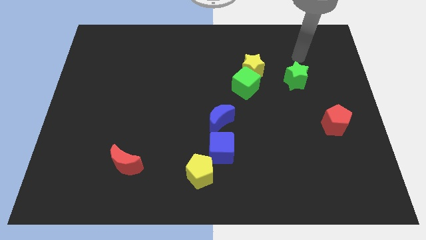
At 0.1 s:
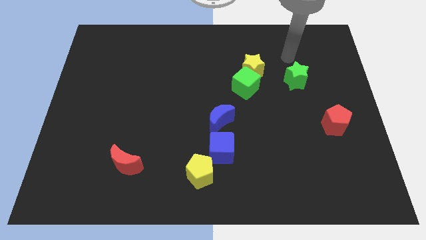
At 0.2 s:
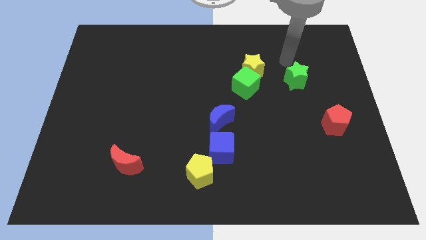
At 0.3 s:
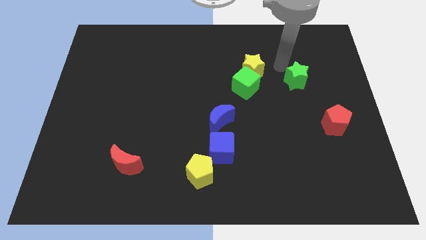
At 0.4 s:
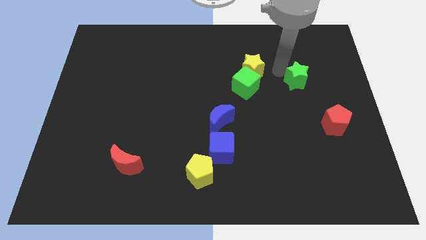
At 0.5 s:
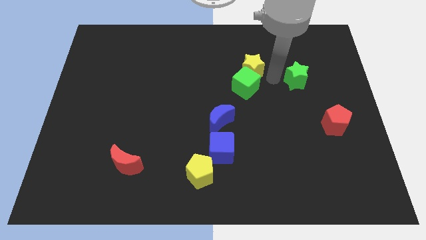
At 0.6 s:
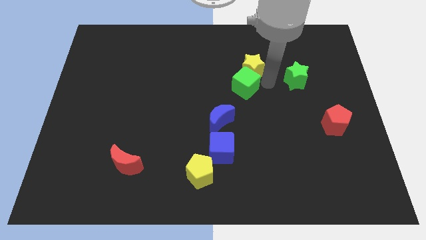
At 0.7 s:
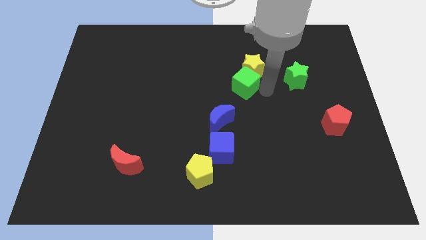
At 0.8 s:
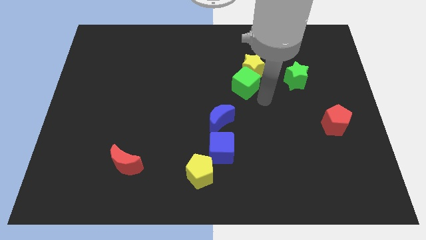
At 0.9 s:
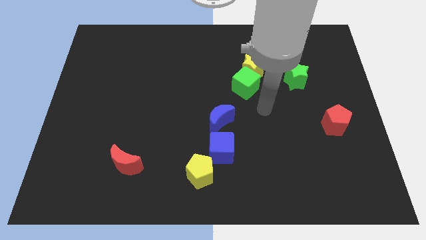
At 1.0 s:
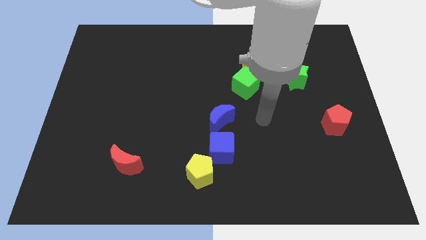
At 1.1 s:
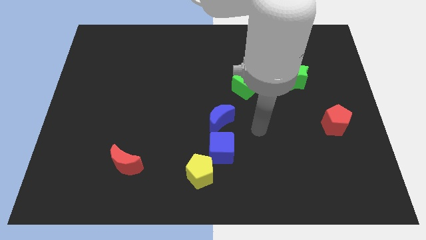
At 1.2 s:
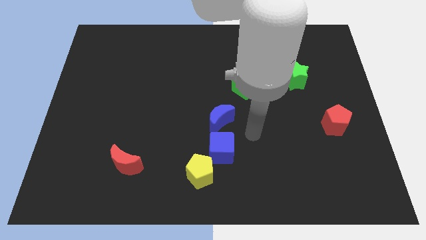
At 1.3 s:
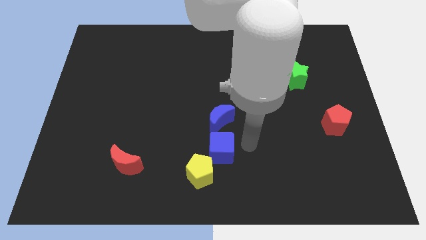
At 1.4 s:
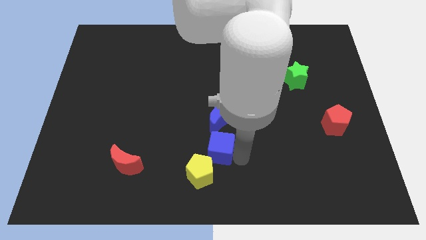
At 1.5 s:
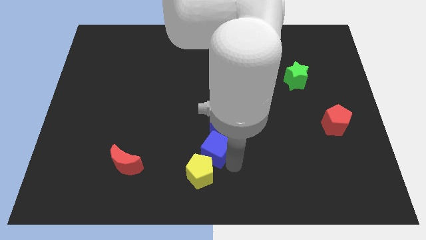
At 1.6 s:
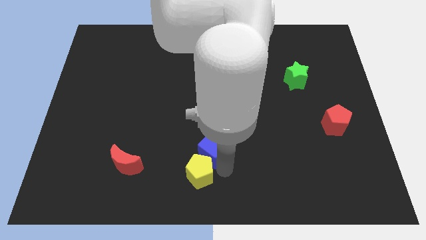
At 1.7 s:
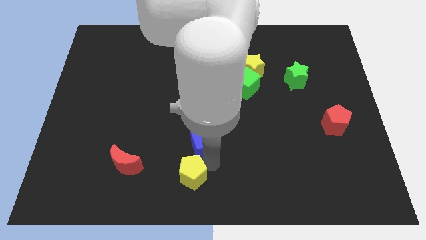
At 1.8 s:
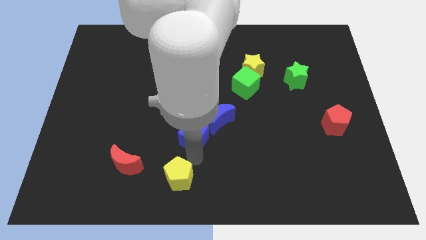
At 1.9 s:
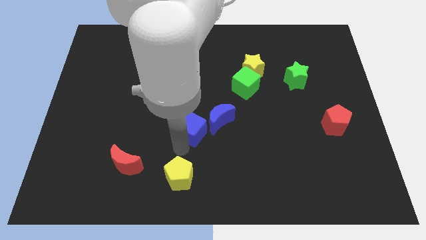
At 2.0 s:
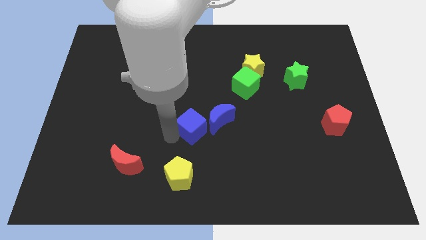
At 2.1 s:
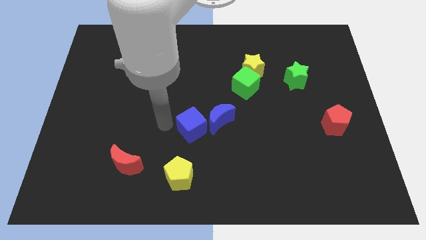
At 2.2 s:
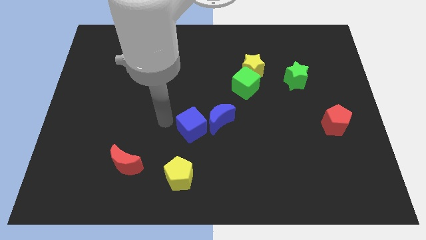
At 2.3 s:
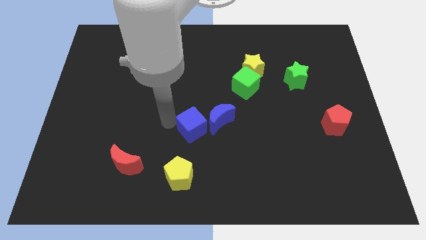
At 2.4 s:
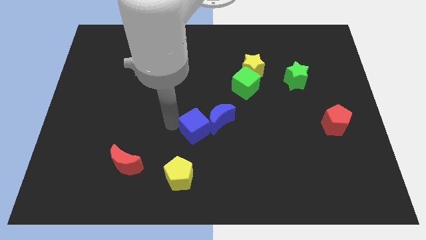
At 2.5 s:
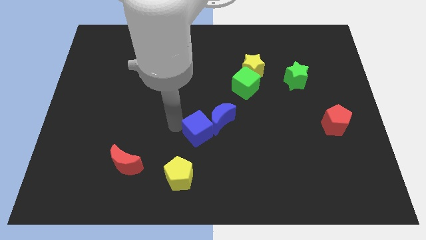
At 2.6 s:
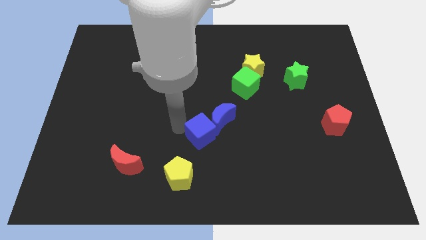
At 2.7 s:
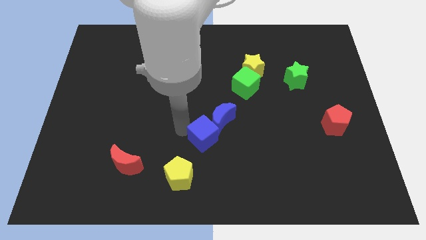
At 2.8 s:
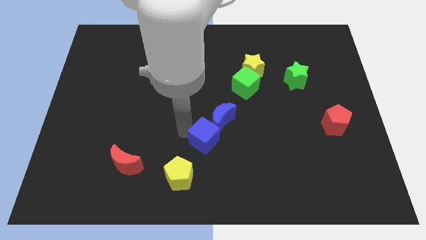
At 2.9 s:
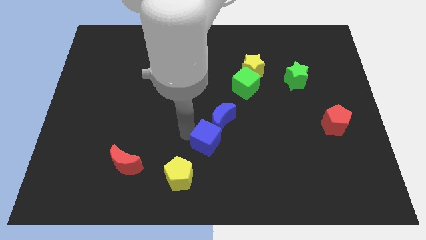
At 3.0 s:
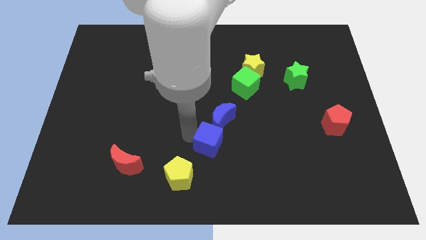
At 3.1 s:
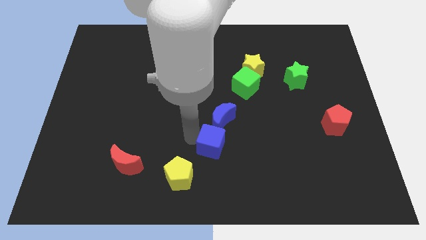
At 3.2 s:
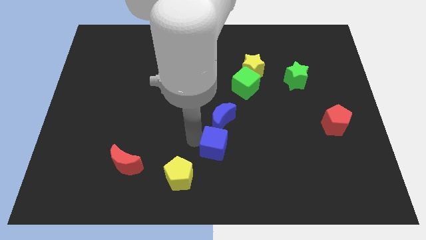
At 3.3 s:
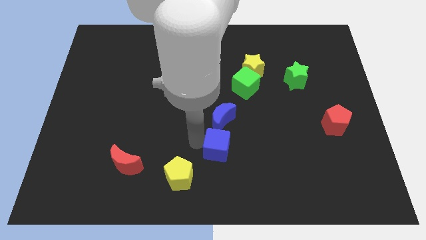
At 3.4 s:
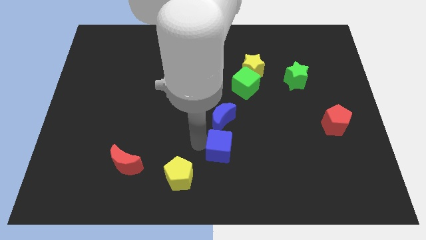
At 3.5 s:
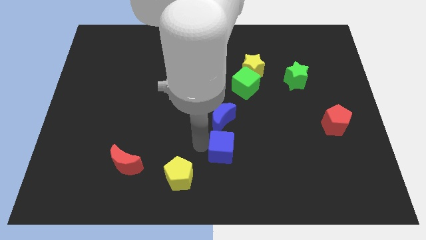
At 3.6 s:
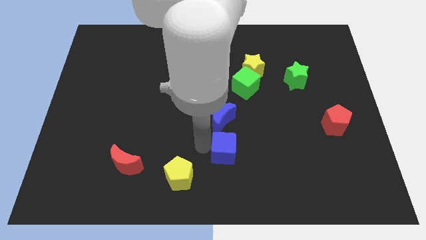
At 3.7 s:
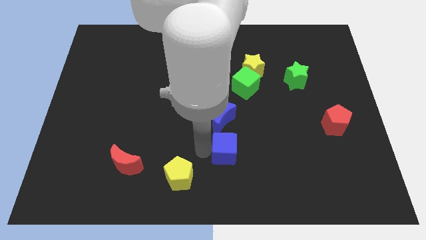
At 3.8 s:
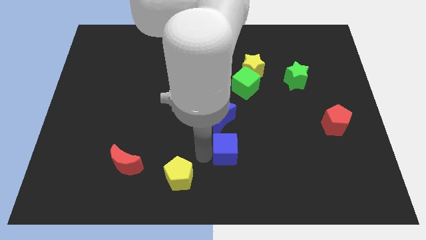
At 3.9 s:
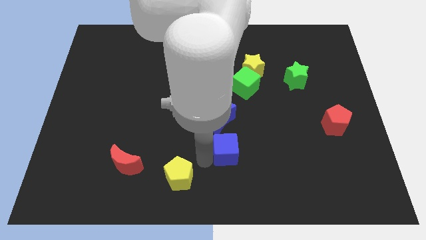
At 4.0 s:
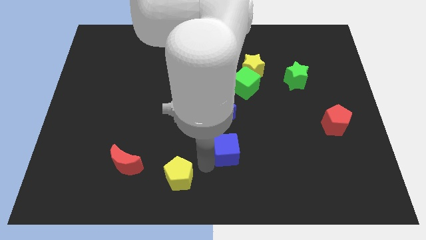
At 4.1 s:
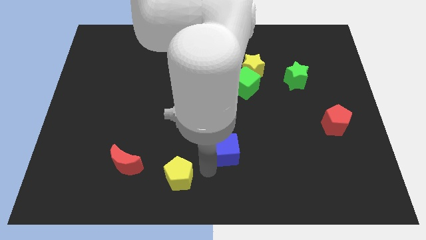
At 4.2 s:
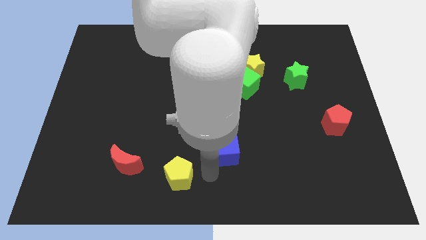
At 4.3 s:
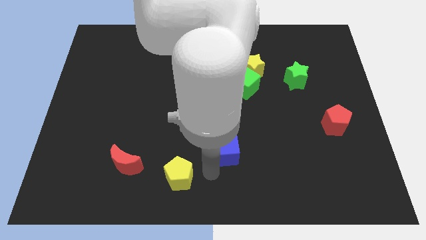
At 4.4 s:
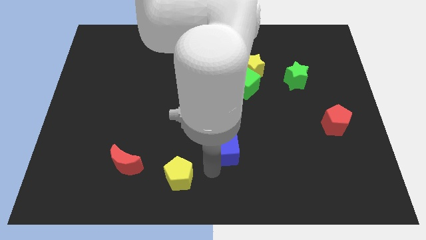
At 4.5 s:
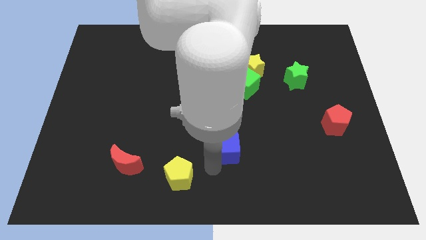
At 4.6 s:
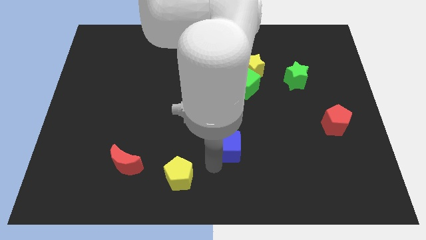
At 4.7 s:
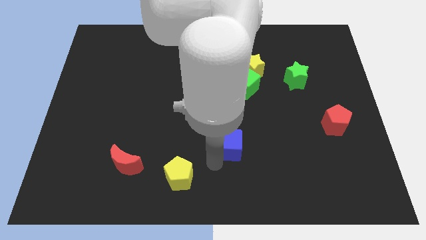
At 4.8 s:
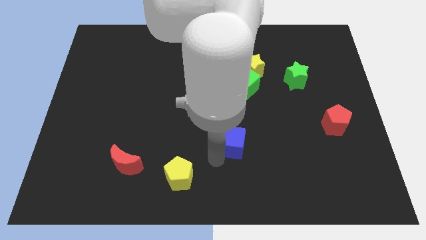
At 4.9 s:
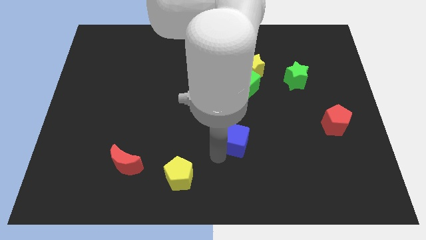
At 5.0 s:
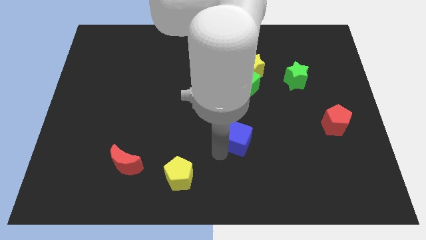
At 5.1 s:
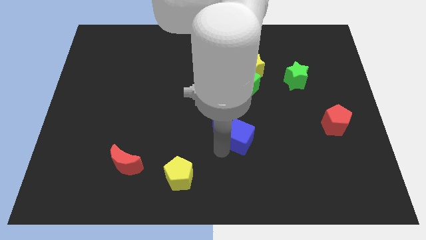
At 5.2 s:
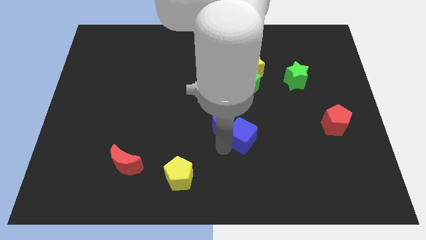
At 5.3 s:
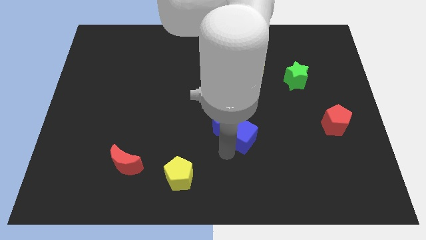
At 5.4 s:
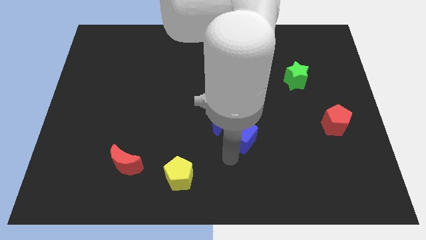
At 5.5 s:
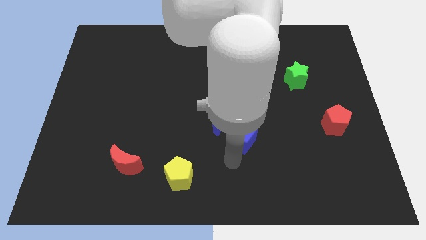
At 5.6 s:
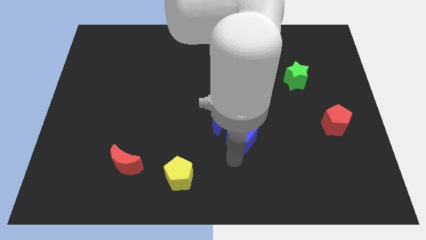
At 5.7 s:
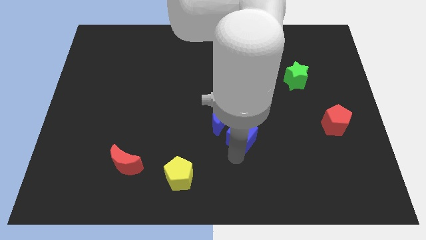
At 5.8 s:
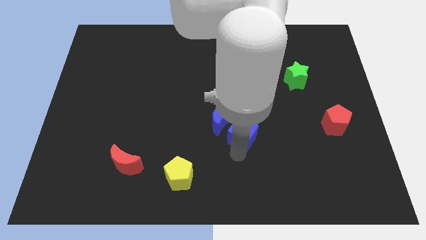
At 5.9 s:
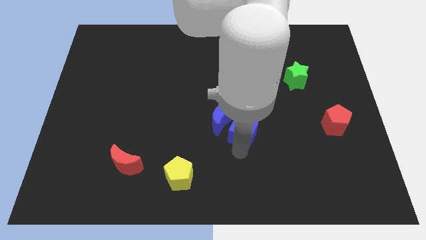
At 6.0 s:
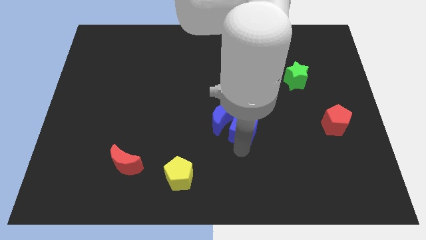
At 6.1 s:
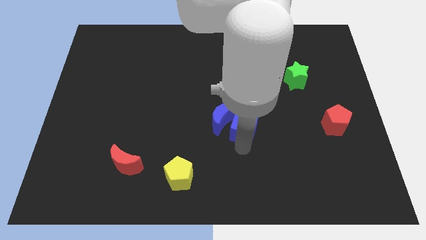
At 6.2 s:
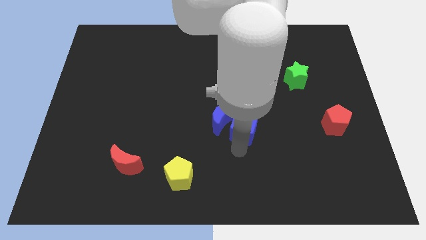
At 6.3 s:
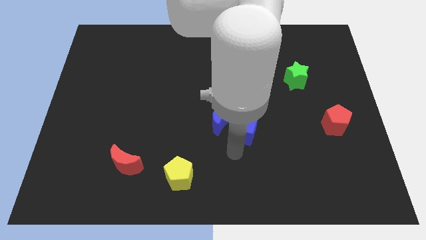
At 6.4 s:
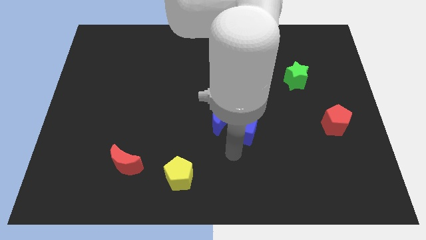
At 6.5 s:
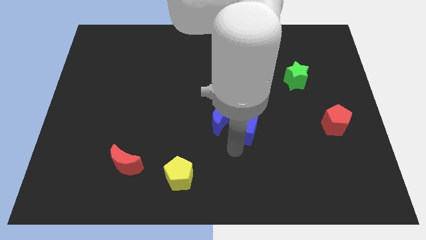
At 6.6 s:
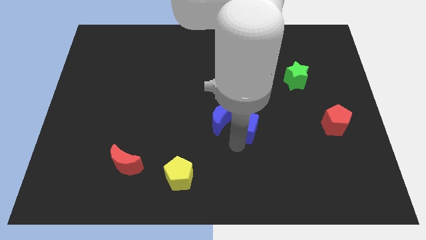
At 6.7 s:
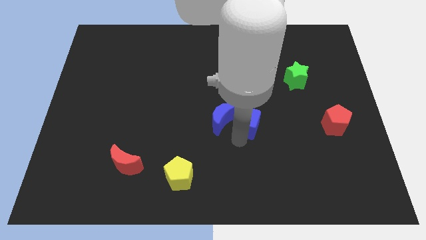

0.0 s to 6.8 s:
put the blue cube to the top right side of the blue moon

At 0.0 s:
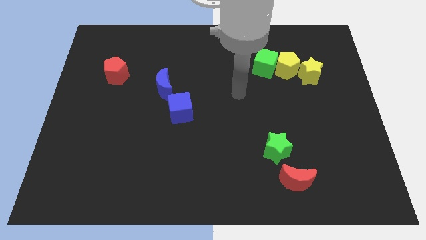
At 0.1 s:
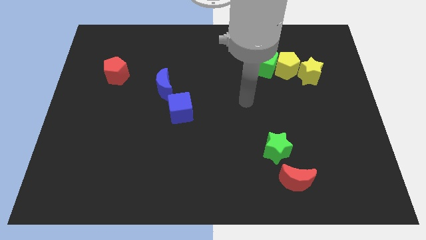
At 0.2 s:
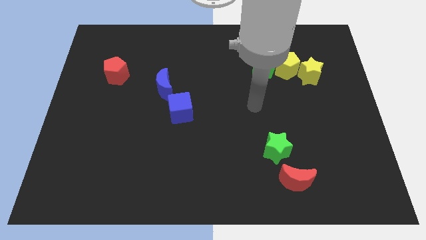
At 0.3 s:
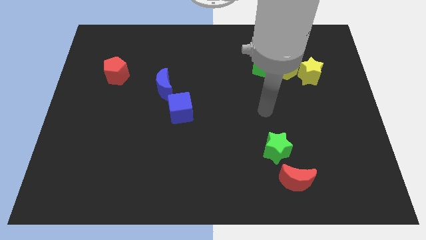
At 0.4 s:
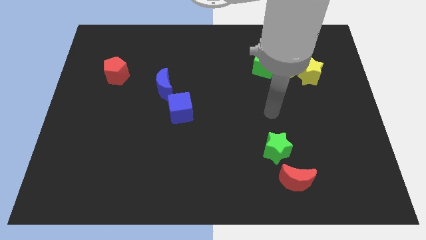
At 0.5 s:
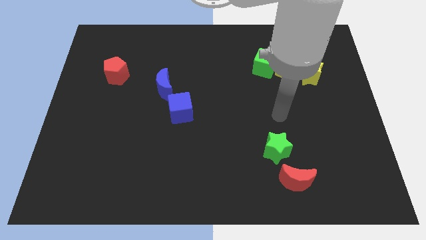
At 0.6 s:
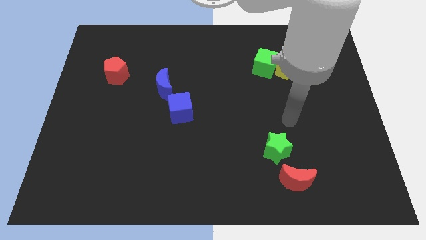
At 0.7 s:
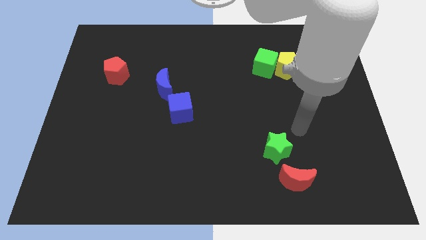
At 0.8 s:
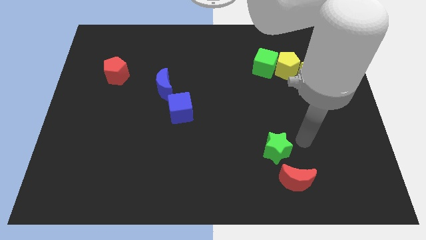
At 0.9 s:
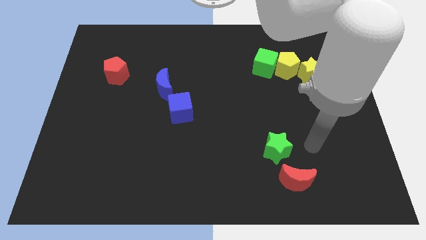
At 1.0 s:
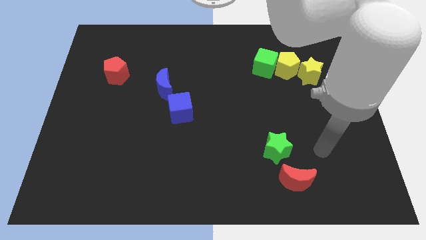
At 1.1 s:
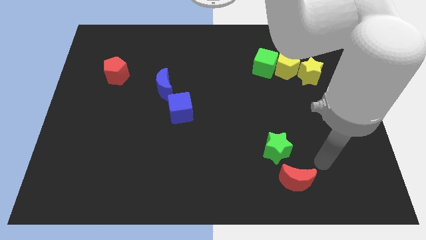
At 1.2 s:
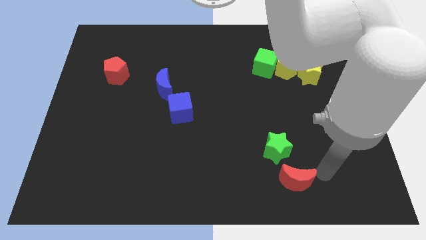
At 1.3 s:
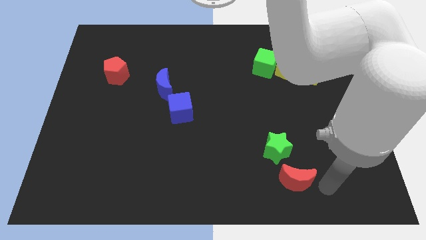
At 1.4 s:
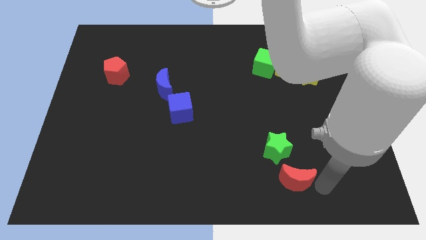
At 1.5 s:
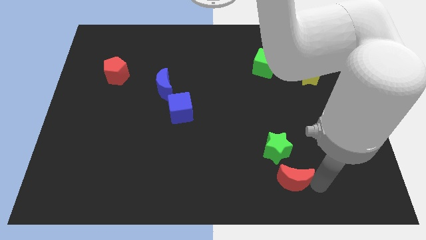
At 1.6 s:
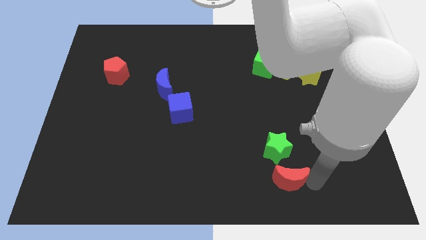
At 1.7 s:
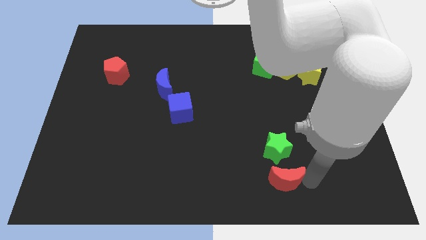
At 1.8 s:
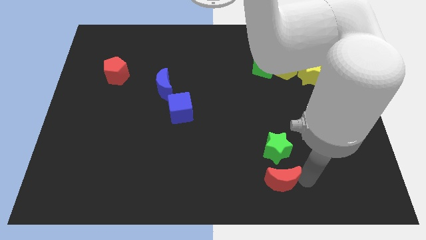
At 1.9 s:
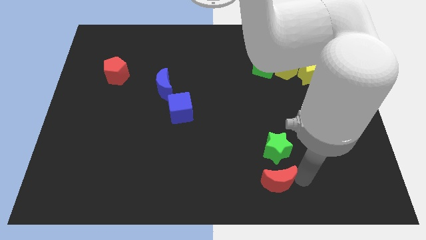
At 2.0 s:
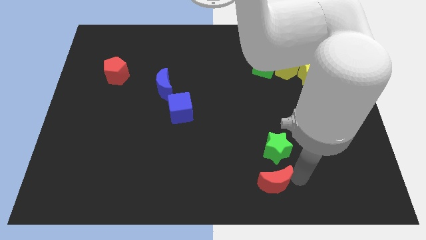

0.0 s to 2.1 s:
put the red moon diagonally down and to the left of the green star
